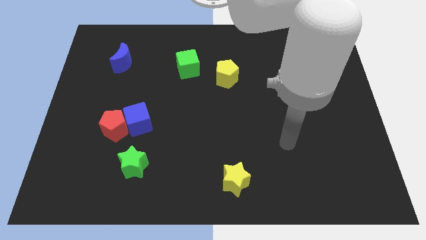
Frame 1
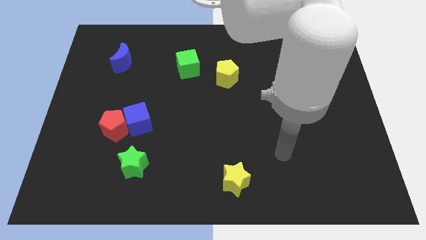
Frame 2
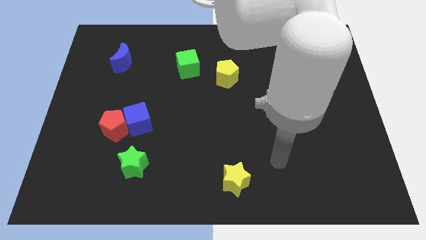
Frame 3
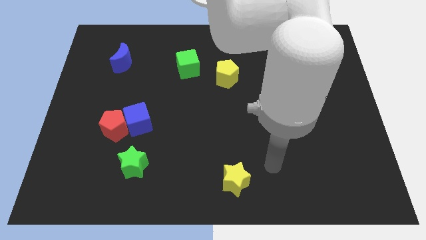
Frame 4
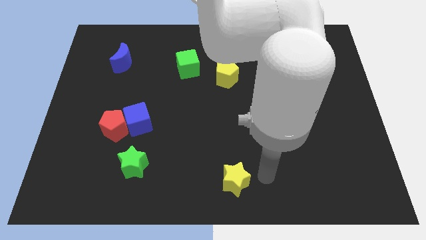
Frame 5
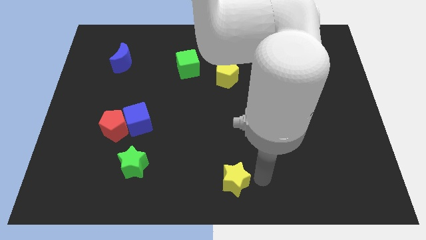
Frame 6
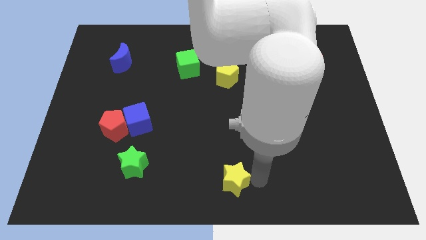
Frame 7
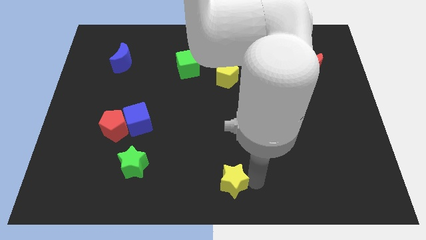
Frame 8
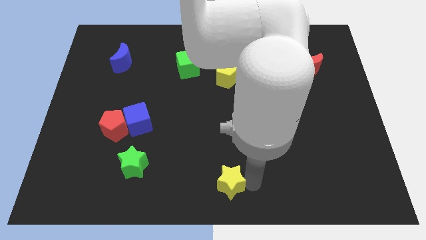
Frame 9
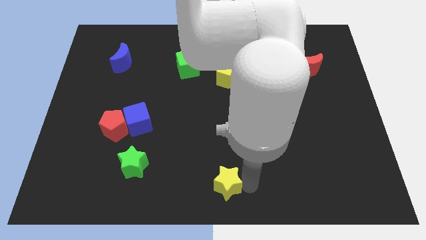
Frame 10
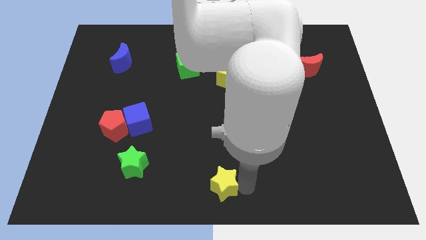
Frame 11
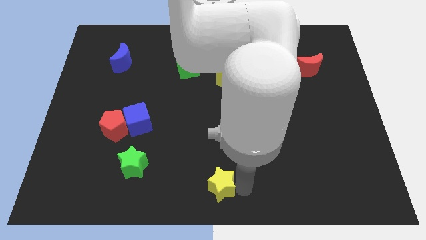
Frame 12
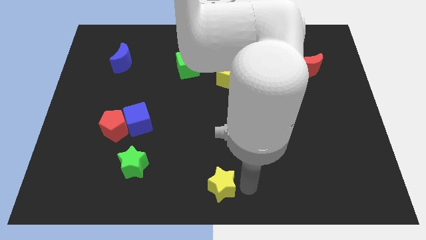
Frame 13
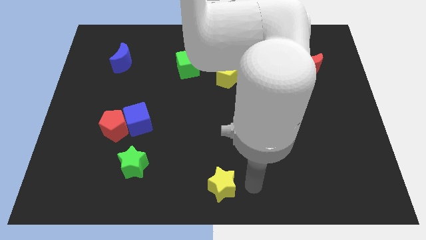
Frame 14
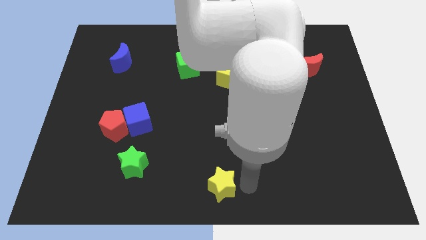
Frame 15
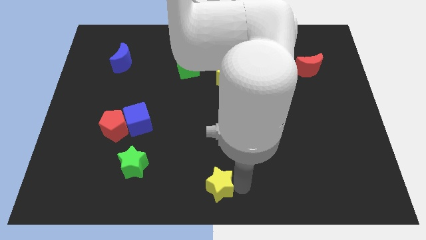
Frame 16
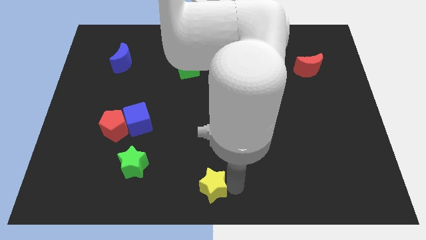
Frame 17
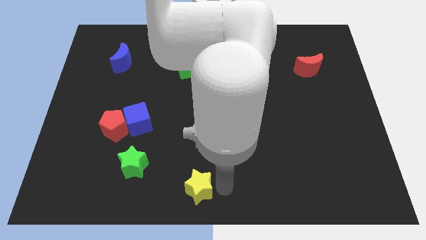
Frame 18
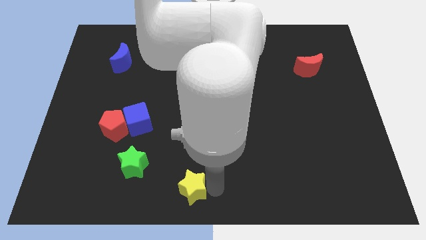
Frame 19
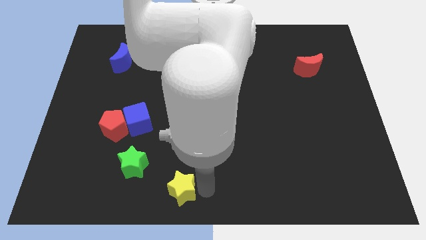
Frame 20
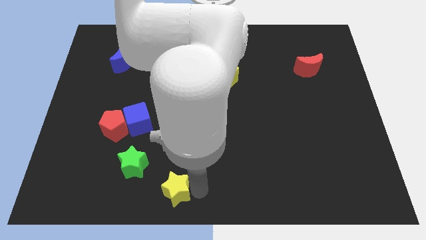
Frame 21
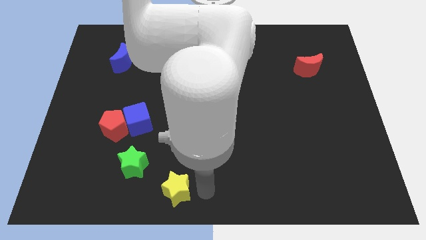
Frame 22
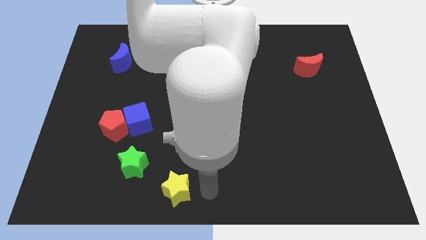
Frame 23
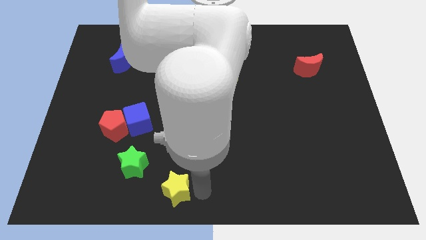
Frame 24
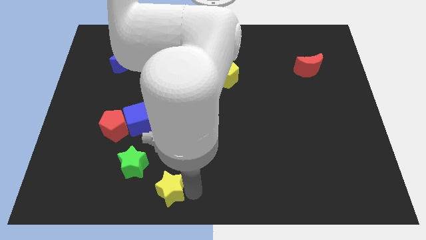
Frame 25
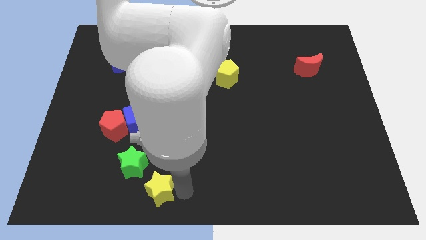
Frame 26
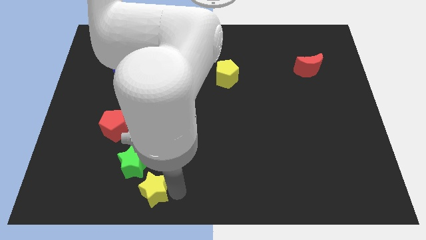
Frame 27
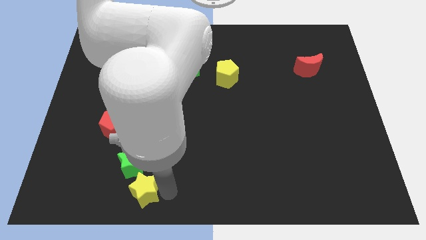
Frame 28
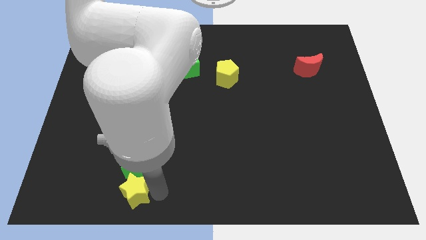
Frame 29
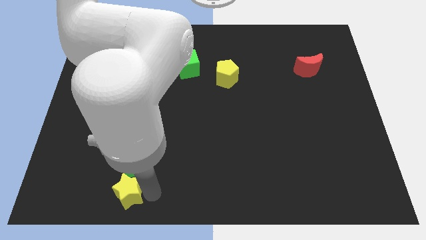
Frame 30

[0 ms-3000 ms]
push the yellow star left

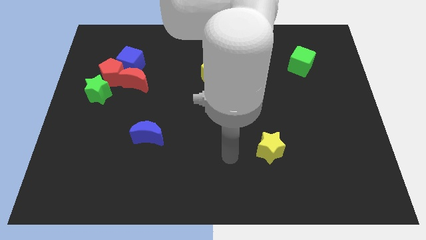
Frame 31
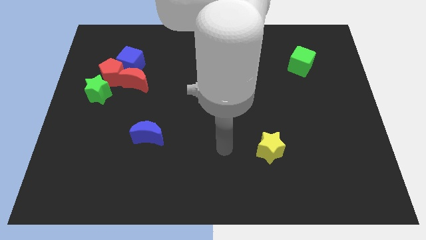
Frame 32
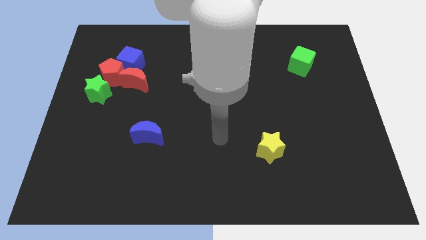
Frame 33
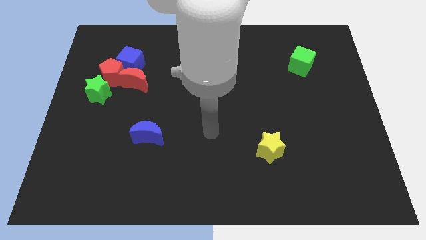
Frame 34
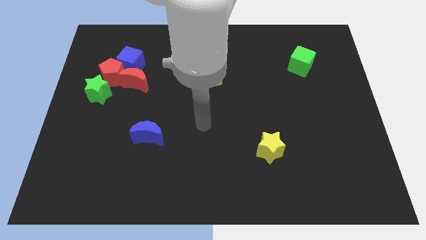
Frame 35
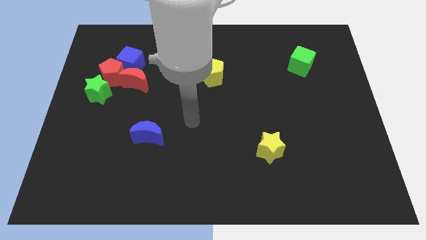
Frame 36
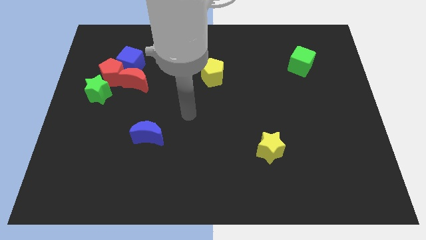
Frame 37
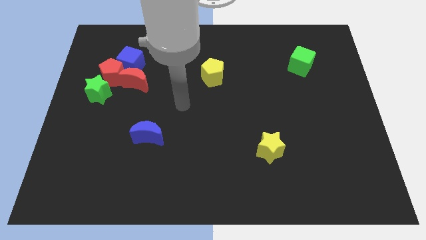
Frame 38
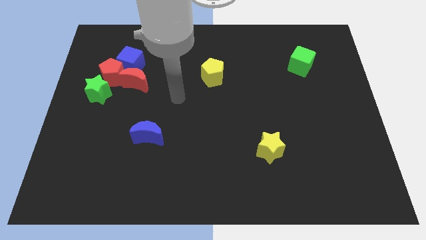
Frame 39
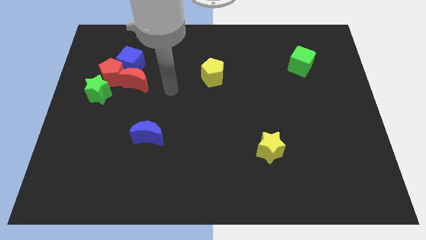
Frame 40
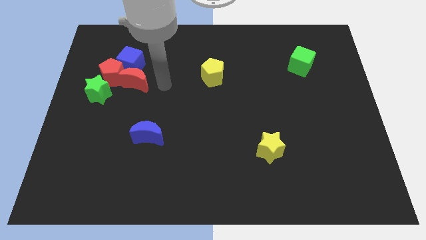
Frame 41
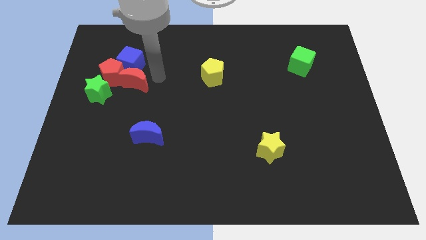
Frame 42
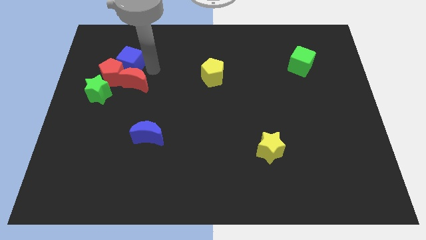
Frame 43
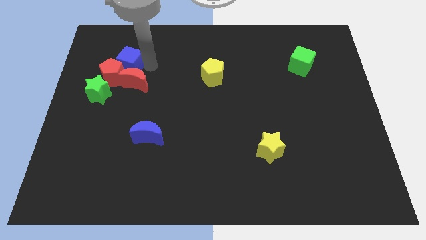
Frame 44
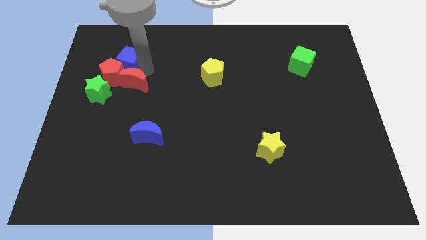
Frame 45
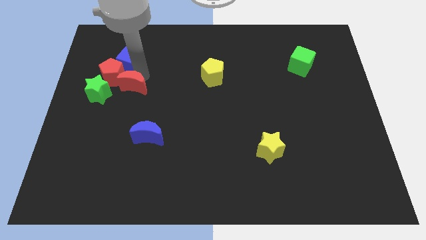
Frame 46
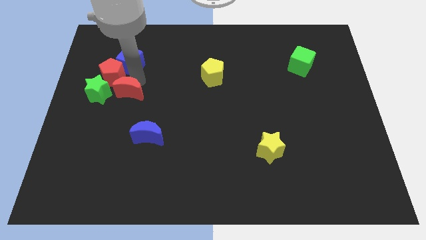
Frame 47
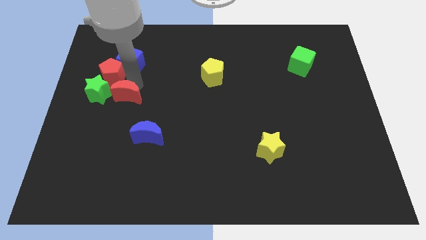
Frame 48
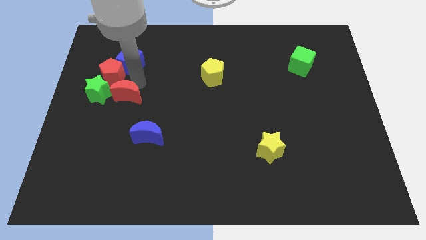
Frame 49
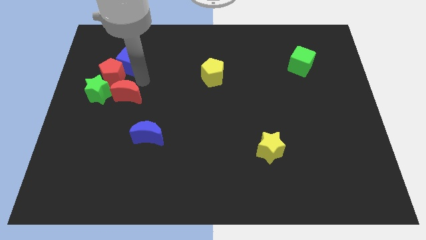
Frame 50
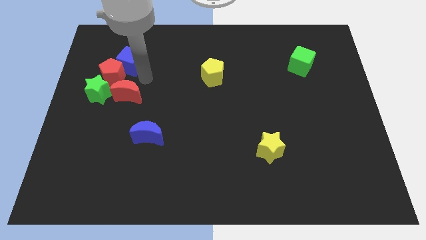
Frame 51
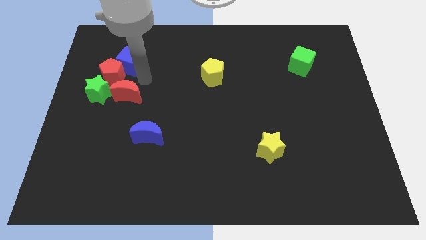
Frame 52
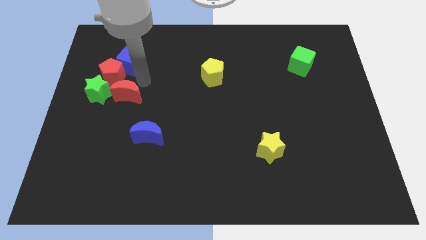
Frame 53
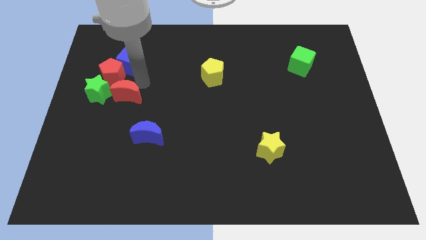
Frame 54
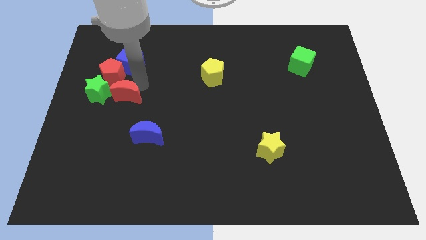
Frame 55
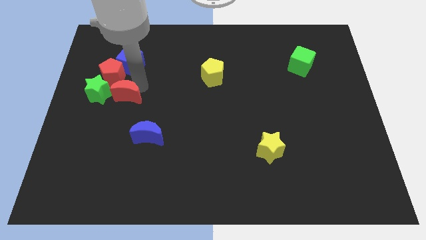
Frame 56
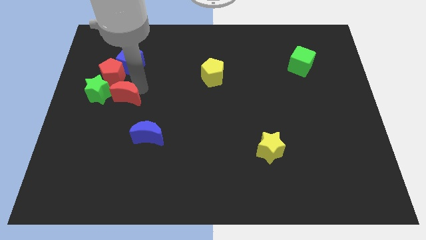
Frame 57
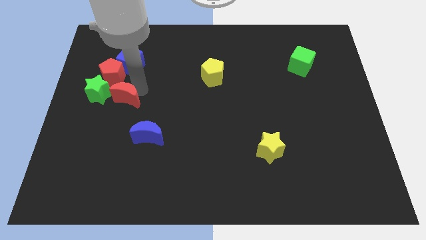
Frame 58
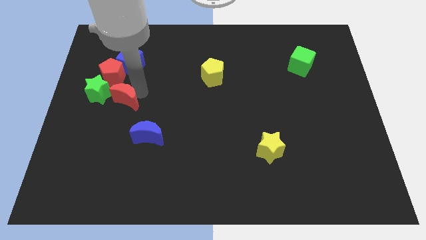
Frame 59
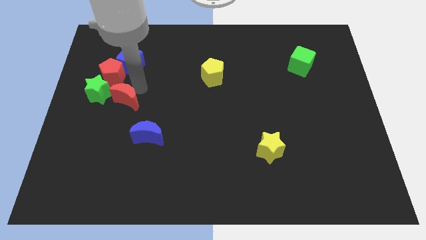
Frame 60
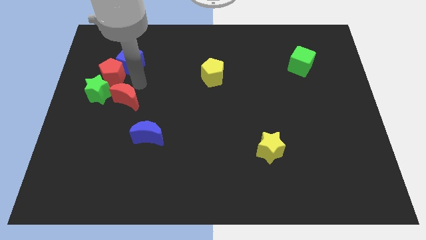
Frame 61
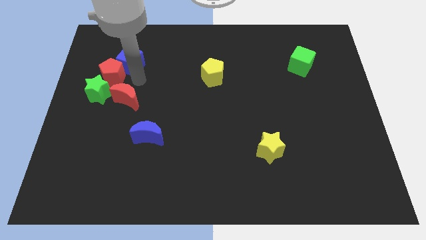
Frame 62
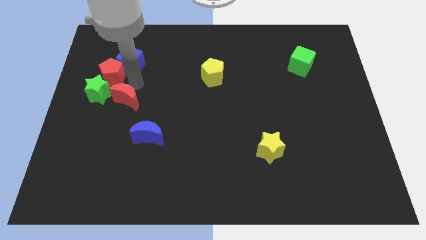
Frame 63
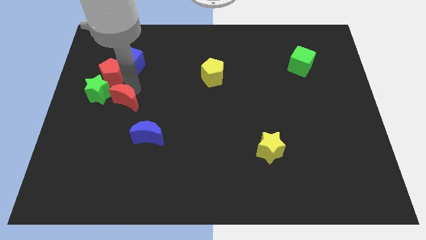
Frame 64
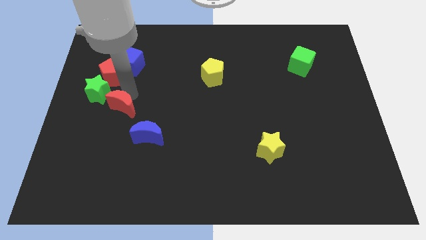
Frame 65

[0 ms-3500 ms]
slide the red moon slightly down

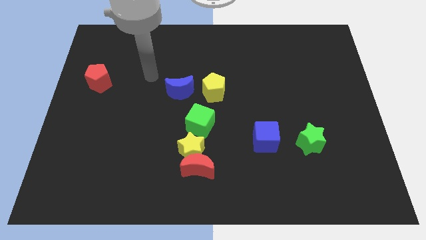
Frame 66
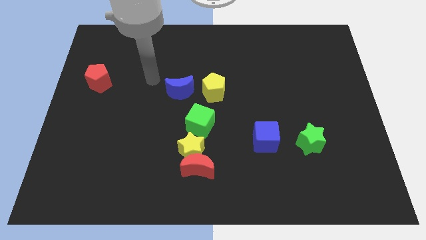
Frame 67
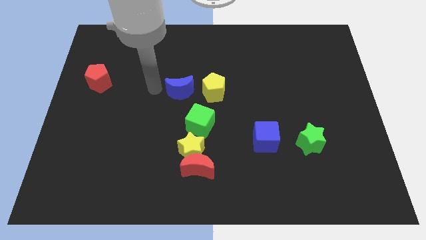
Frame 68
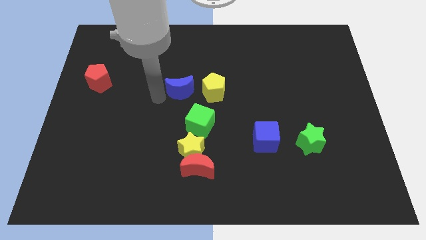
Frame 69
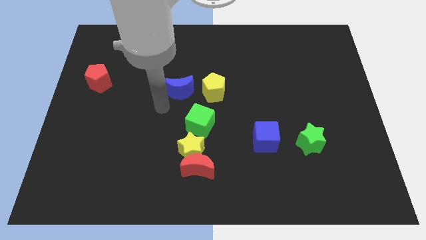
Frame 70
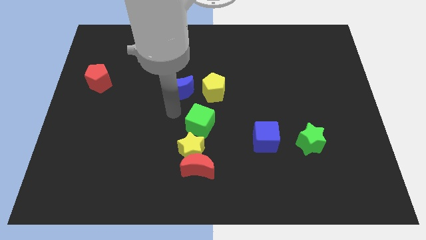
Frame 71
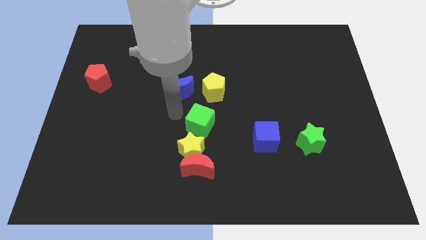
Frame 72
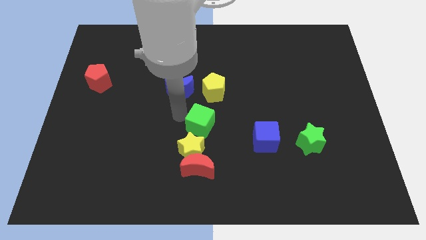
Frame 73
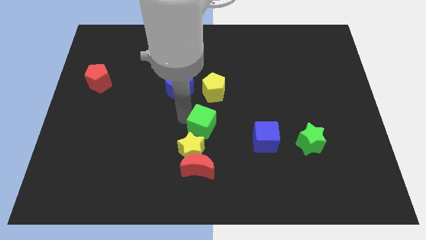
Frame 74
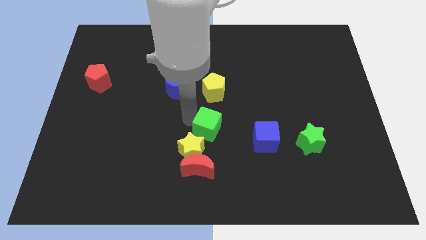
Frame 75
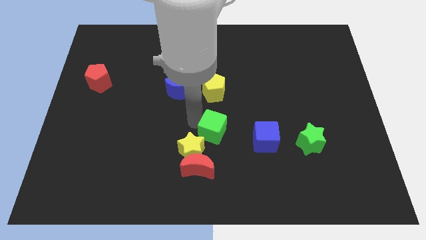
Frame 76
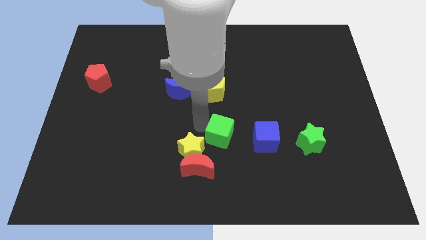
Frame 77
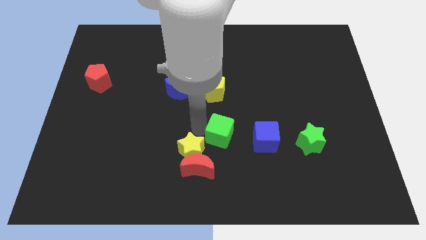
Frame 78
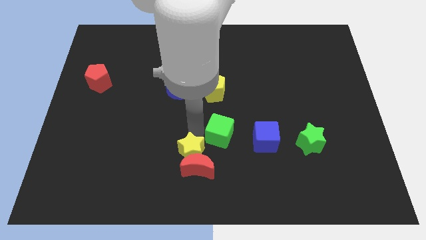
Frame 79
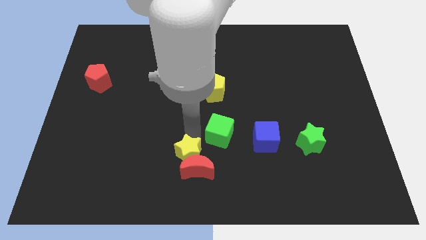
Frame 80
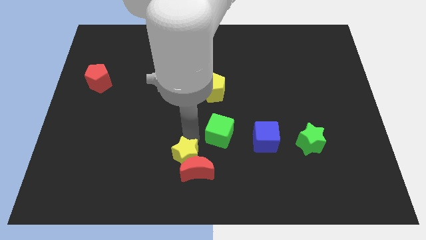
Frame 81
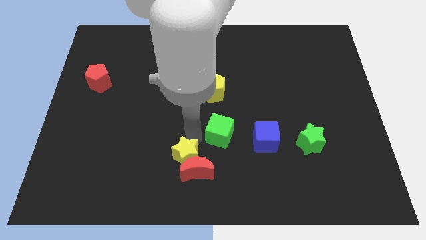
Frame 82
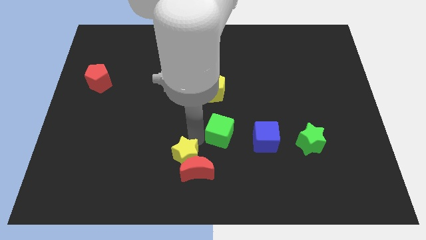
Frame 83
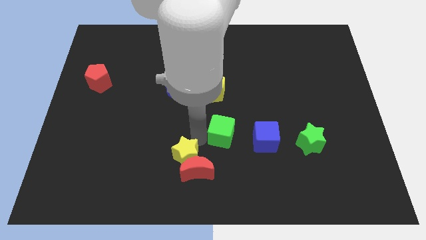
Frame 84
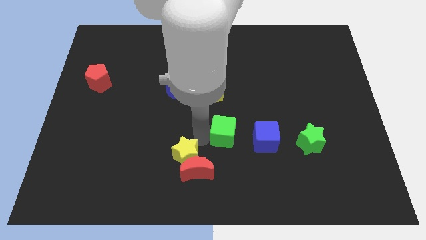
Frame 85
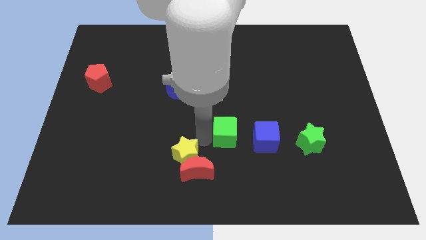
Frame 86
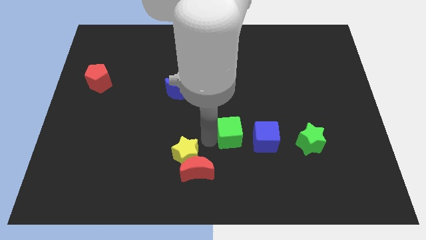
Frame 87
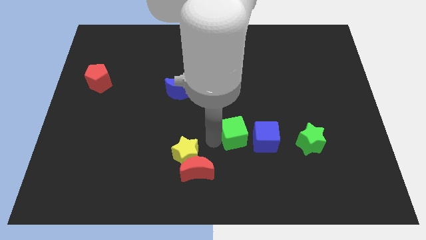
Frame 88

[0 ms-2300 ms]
move the green cube to the right a little bit
